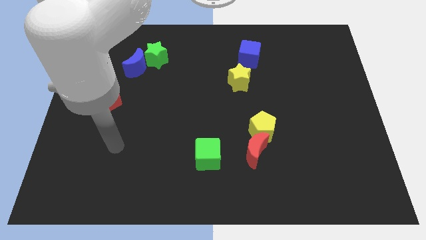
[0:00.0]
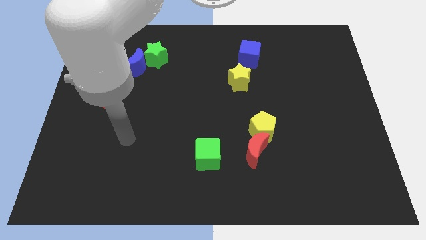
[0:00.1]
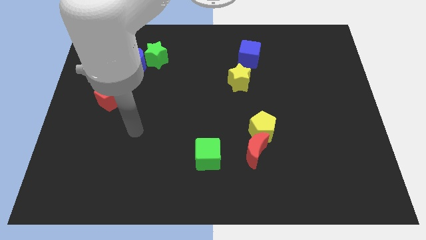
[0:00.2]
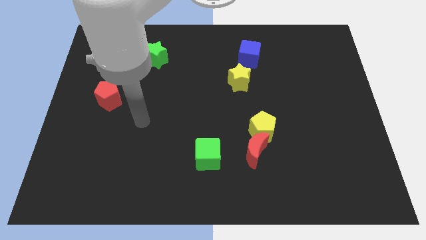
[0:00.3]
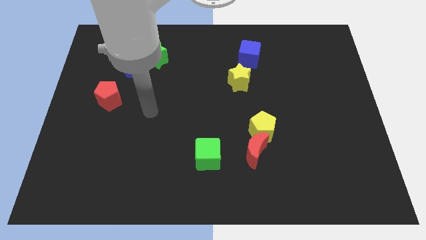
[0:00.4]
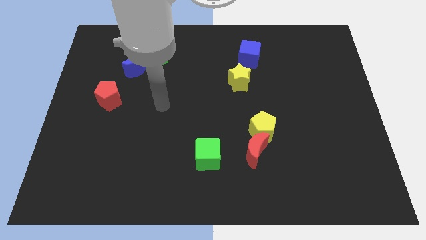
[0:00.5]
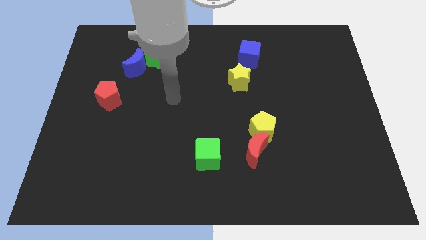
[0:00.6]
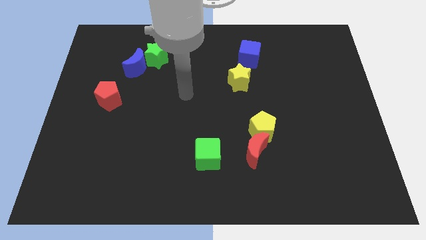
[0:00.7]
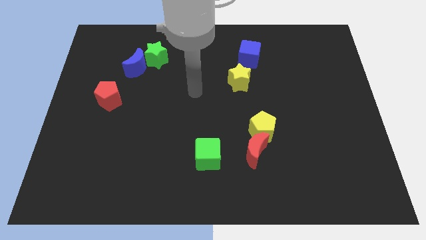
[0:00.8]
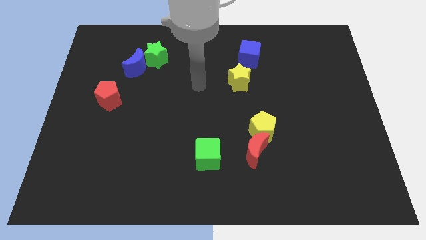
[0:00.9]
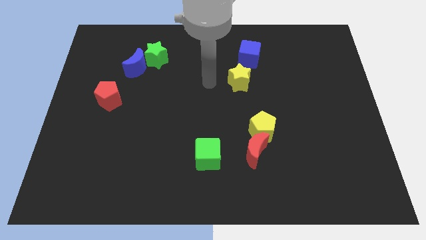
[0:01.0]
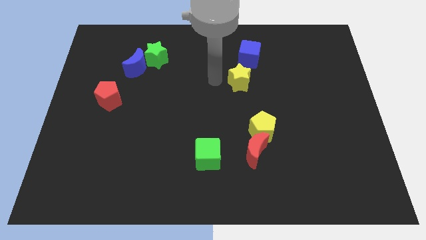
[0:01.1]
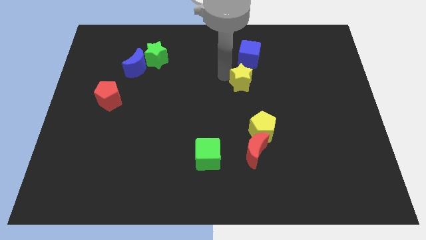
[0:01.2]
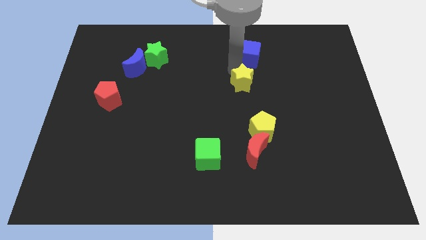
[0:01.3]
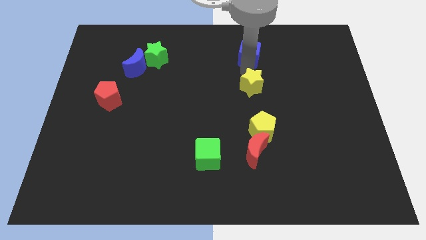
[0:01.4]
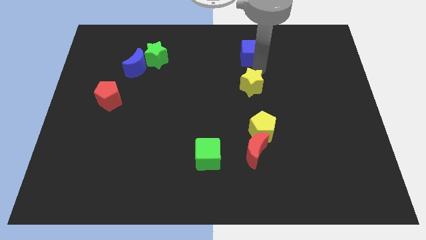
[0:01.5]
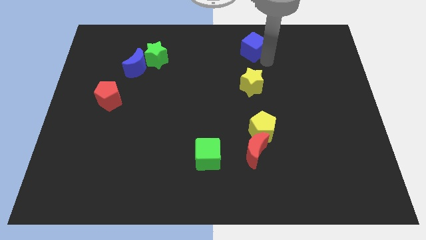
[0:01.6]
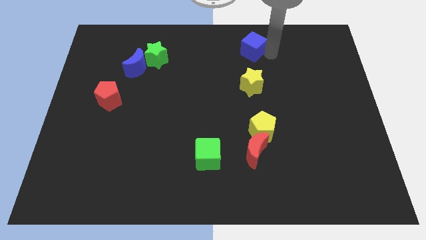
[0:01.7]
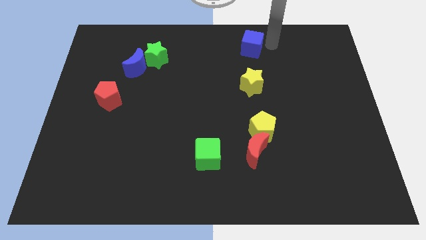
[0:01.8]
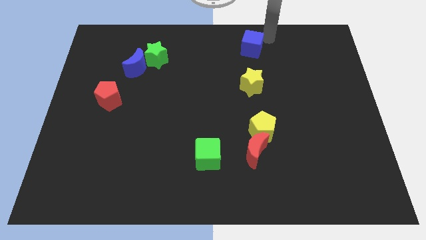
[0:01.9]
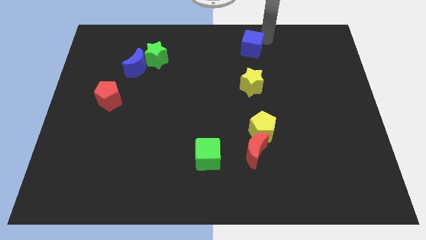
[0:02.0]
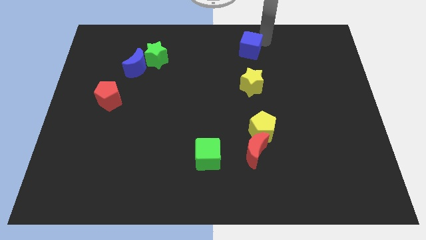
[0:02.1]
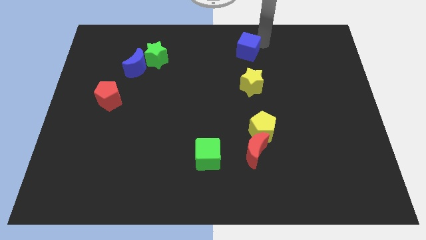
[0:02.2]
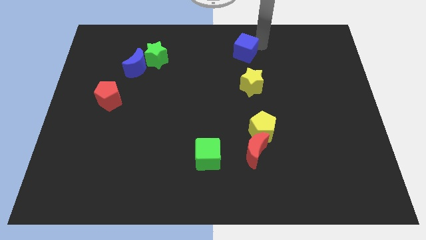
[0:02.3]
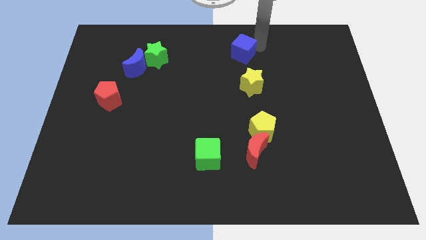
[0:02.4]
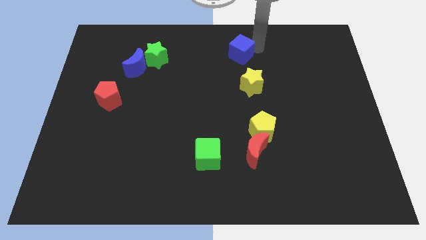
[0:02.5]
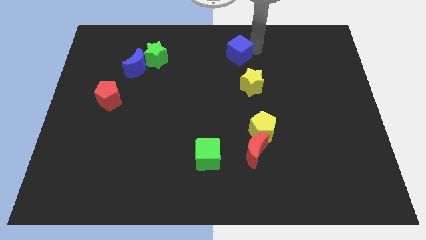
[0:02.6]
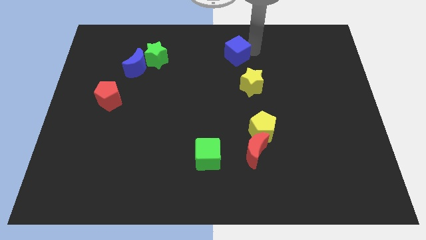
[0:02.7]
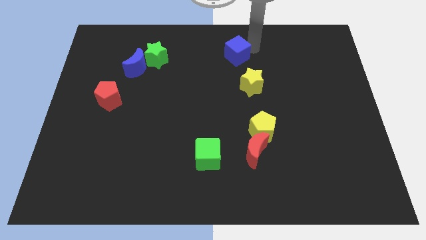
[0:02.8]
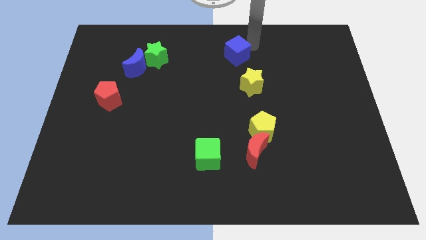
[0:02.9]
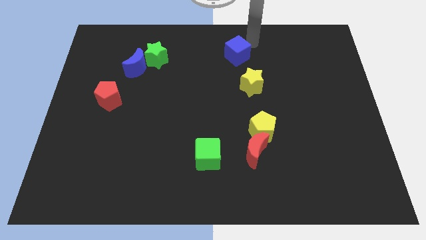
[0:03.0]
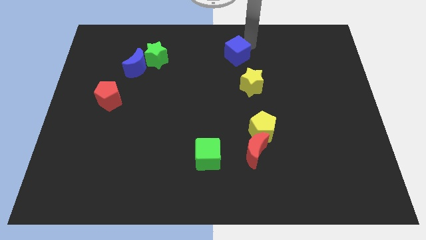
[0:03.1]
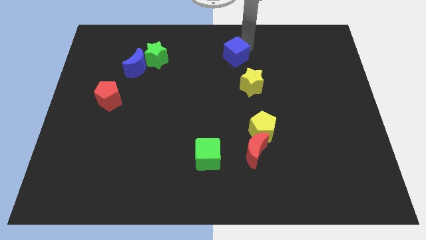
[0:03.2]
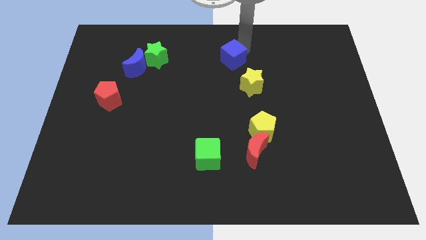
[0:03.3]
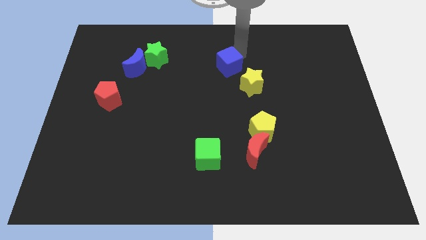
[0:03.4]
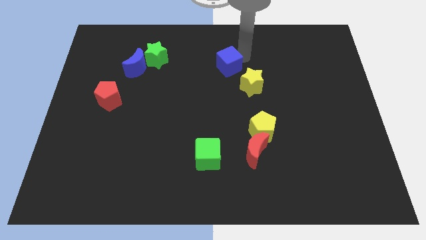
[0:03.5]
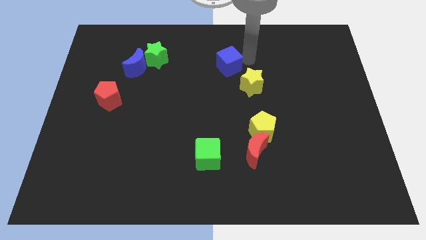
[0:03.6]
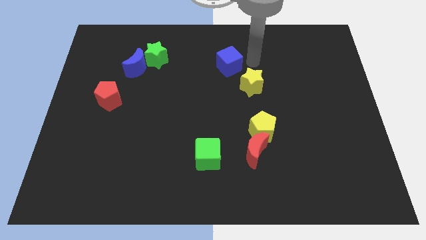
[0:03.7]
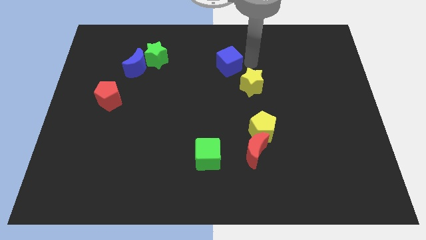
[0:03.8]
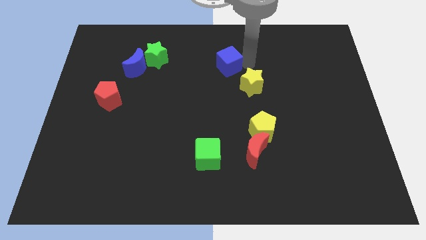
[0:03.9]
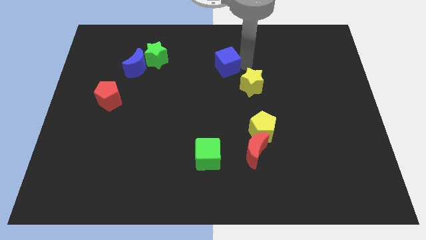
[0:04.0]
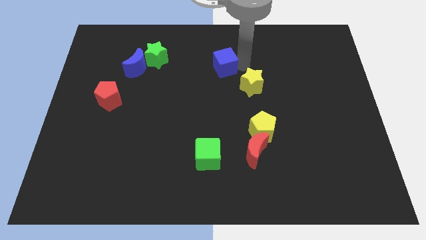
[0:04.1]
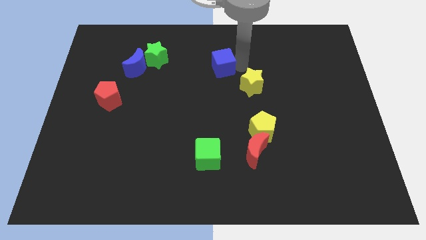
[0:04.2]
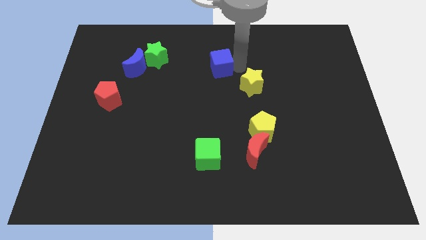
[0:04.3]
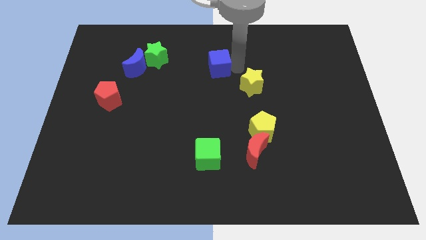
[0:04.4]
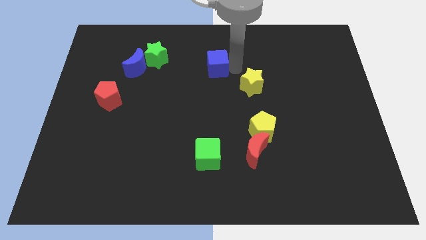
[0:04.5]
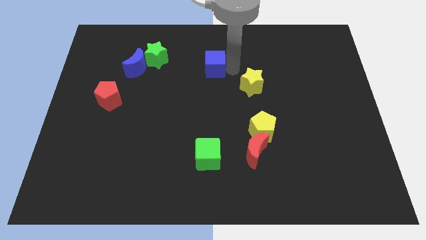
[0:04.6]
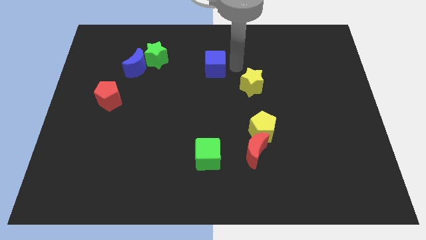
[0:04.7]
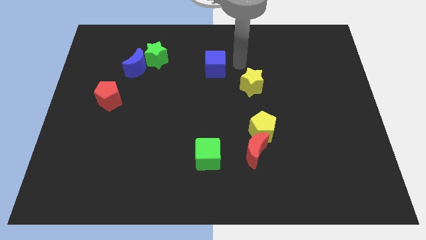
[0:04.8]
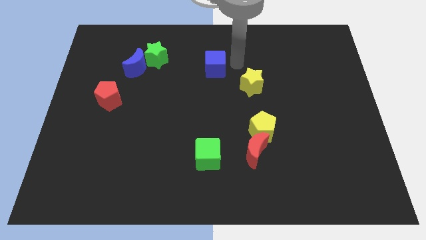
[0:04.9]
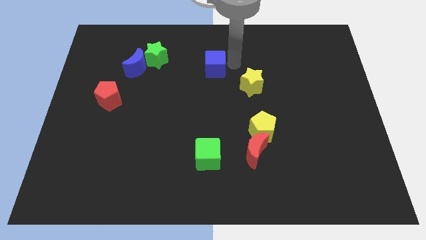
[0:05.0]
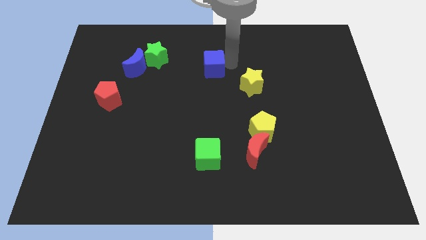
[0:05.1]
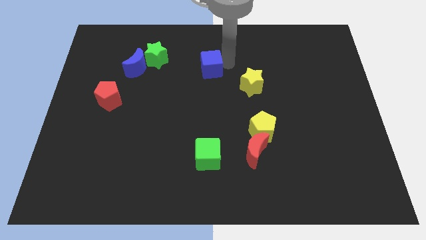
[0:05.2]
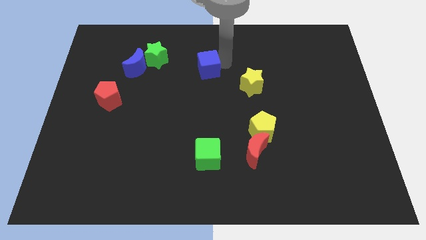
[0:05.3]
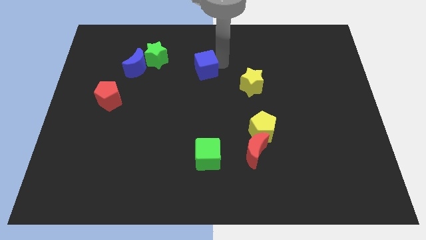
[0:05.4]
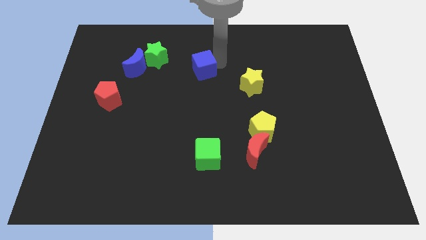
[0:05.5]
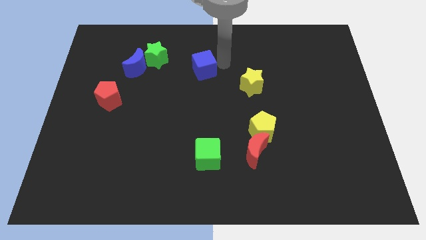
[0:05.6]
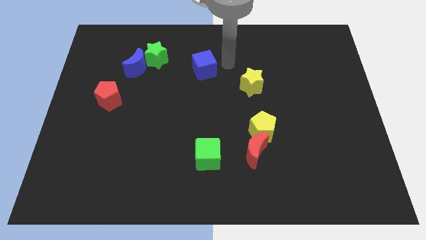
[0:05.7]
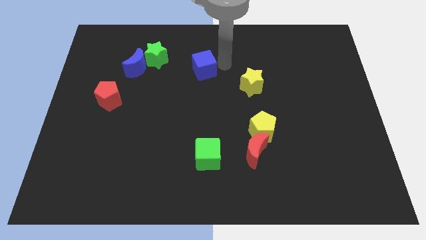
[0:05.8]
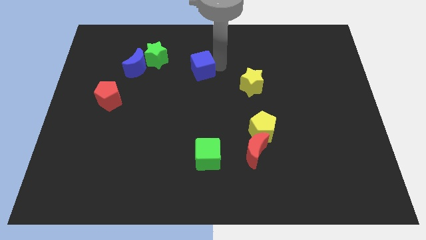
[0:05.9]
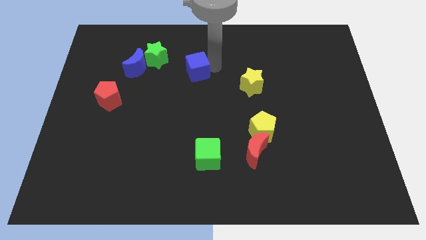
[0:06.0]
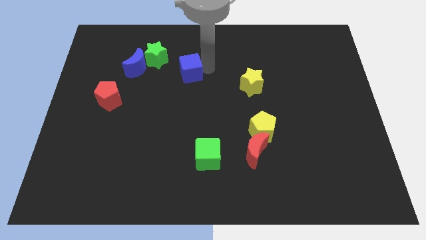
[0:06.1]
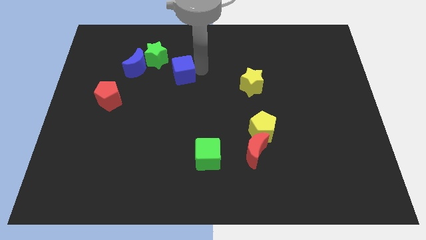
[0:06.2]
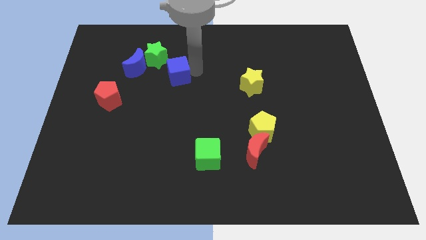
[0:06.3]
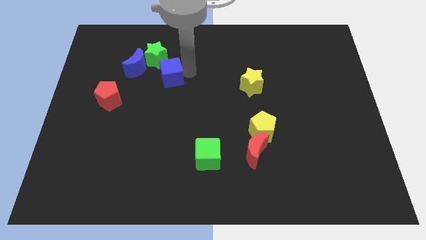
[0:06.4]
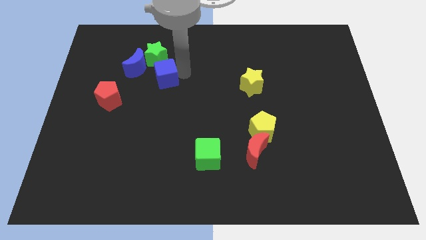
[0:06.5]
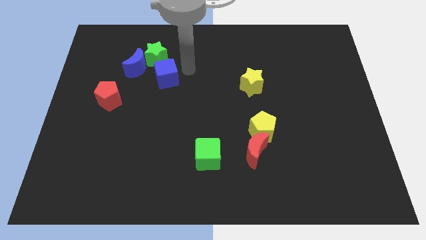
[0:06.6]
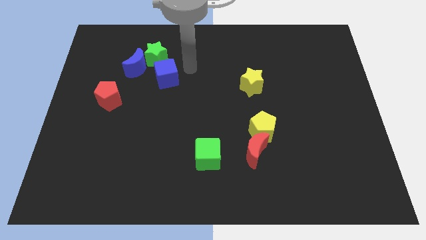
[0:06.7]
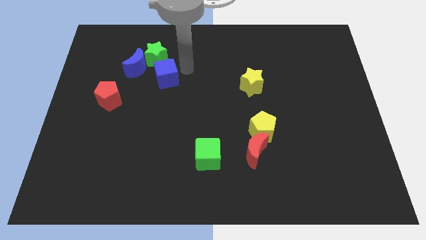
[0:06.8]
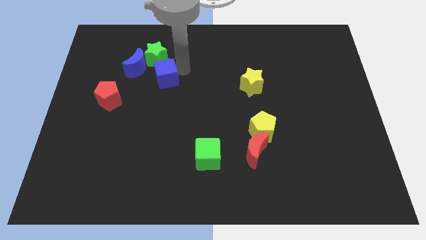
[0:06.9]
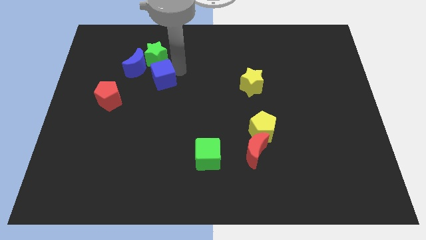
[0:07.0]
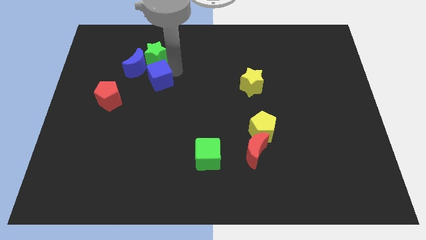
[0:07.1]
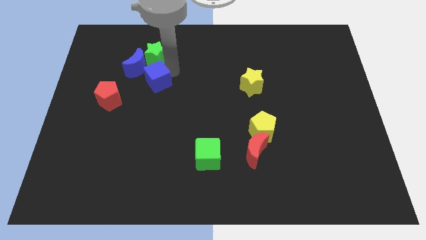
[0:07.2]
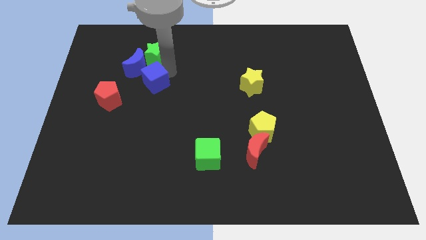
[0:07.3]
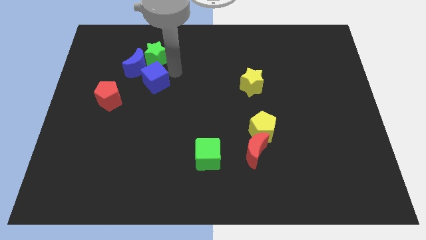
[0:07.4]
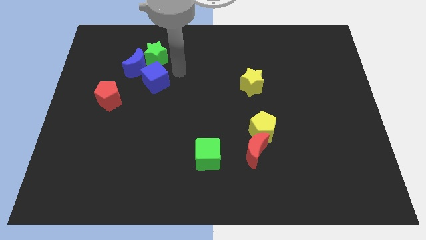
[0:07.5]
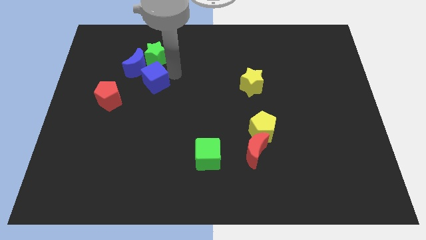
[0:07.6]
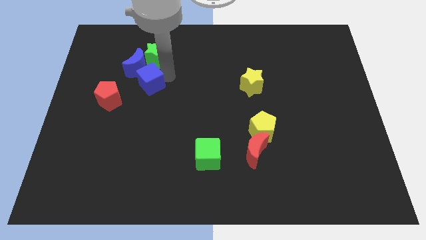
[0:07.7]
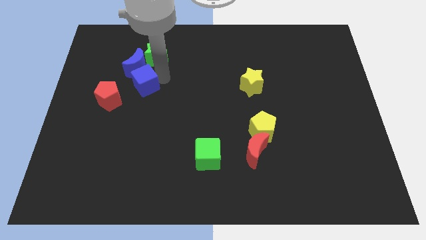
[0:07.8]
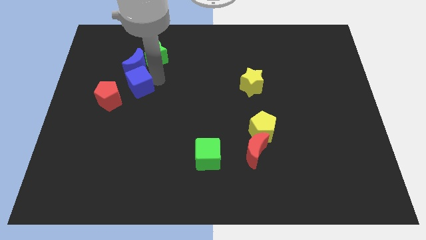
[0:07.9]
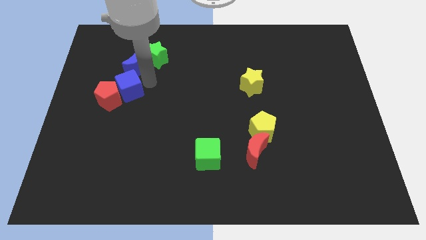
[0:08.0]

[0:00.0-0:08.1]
push the blue cube to the red pentagon
